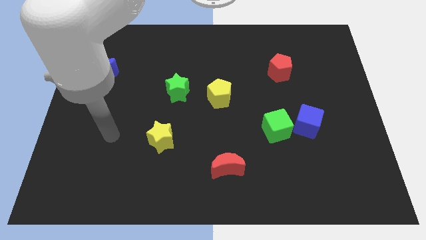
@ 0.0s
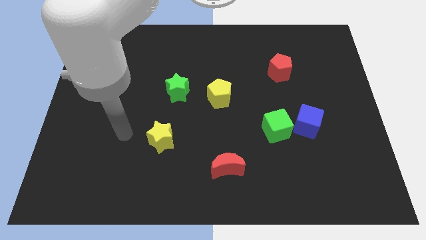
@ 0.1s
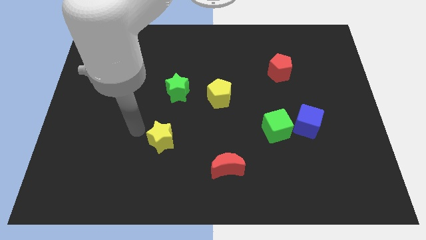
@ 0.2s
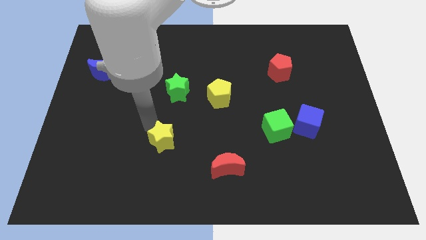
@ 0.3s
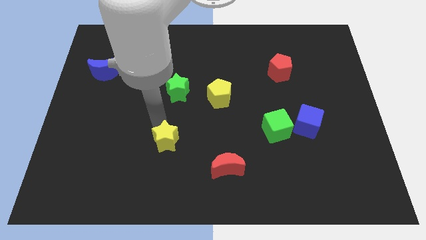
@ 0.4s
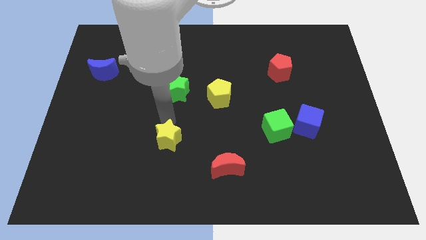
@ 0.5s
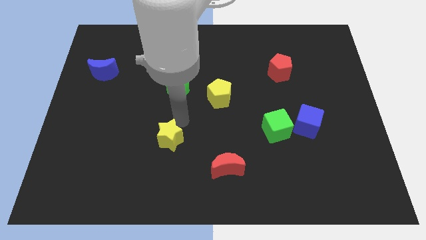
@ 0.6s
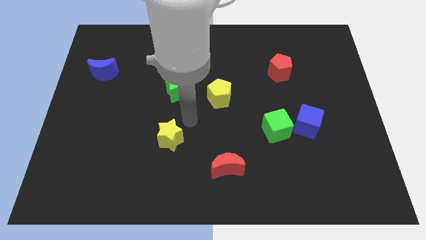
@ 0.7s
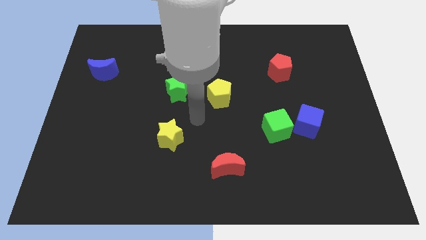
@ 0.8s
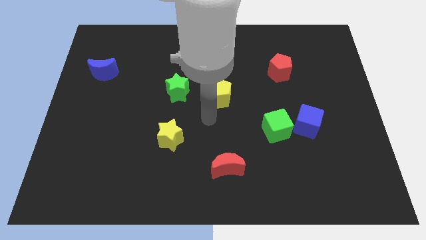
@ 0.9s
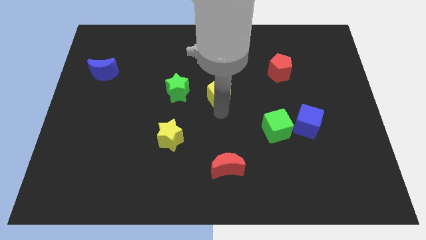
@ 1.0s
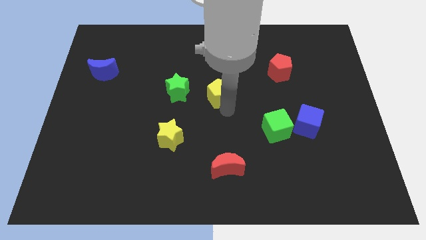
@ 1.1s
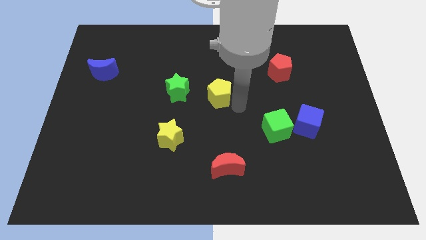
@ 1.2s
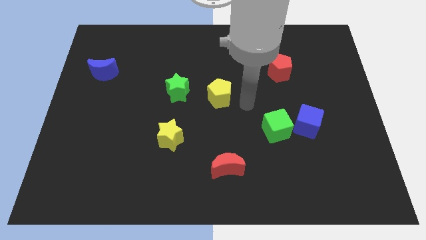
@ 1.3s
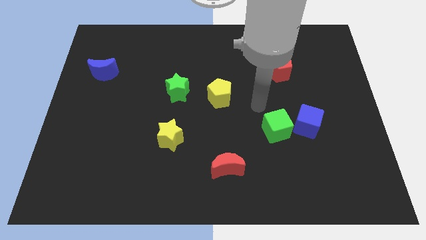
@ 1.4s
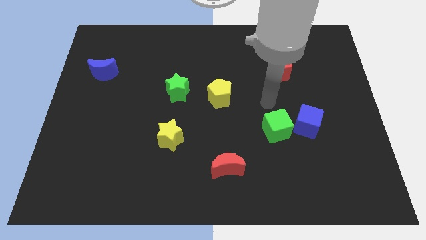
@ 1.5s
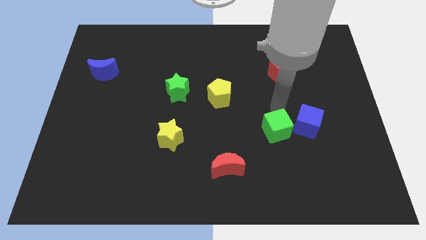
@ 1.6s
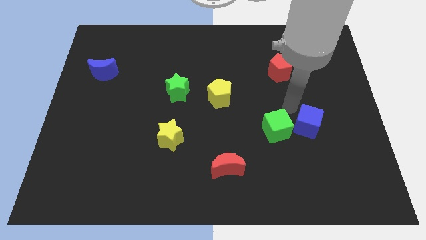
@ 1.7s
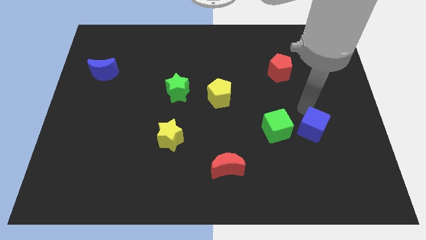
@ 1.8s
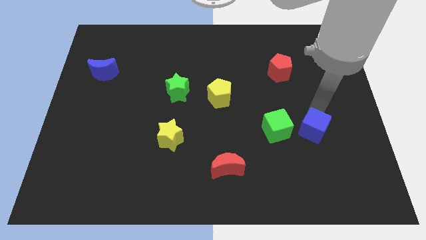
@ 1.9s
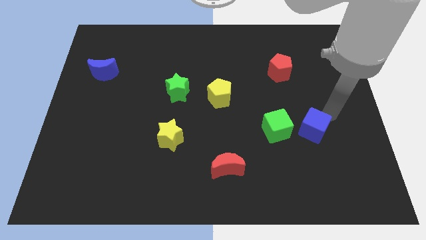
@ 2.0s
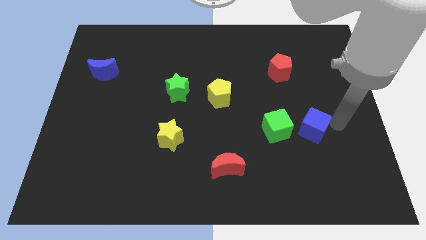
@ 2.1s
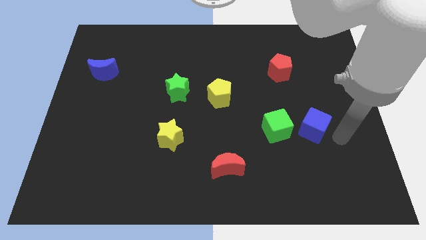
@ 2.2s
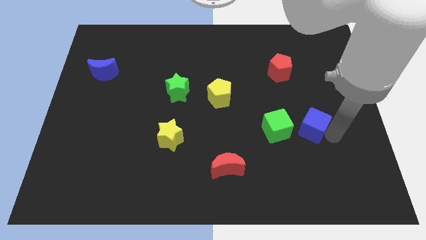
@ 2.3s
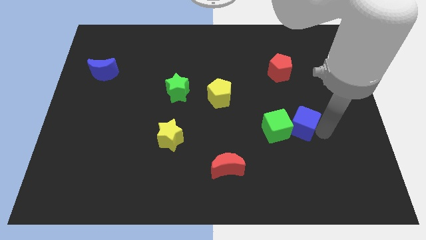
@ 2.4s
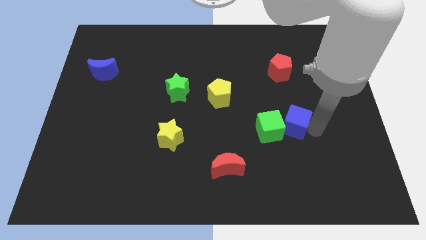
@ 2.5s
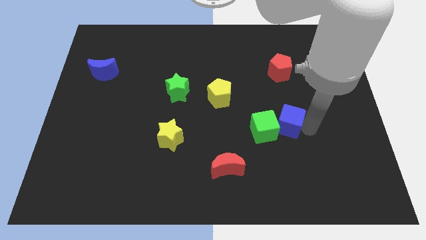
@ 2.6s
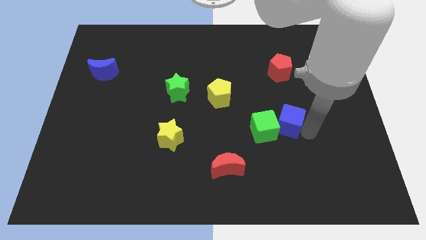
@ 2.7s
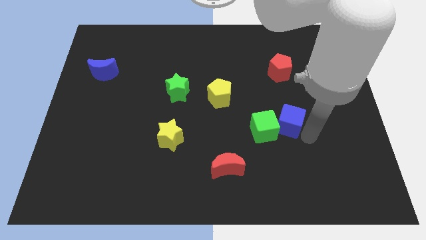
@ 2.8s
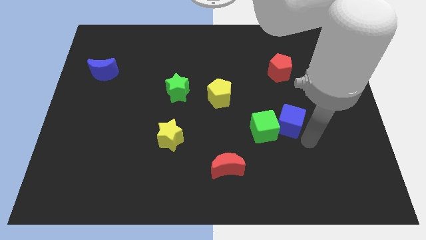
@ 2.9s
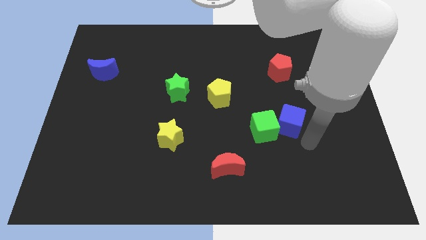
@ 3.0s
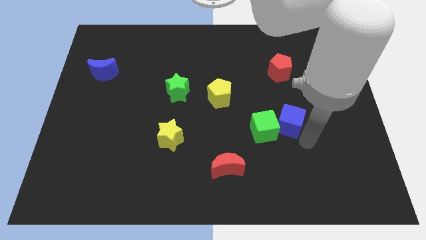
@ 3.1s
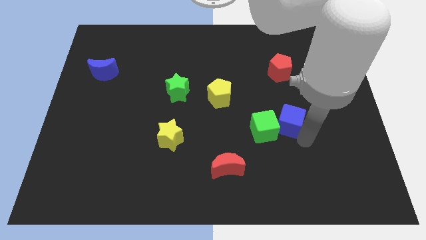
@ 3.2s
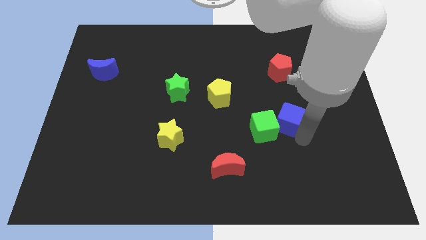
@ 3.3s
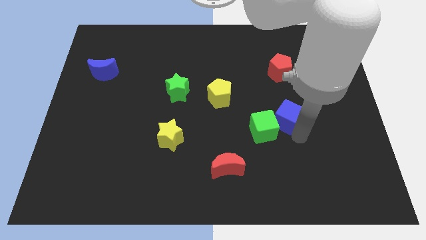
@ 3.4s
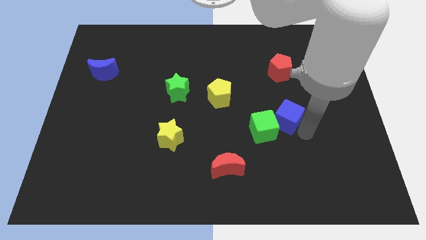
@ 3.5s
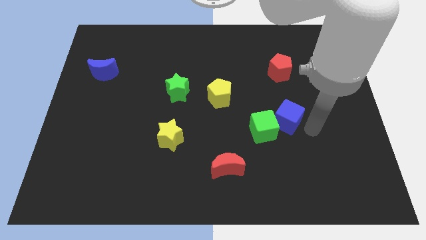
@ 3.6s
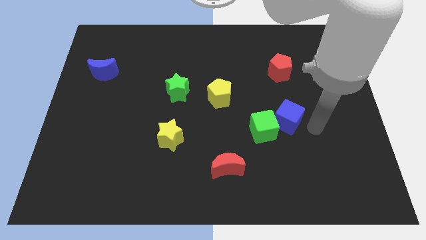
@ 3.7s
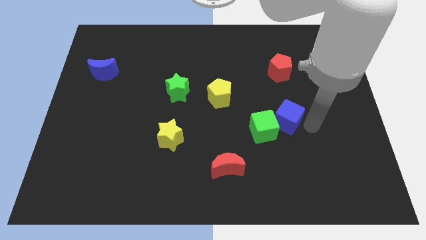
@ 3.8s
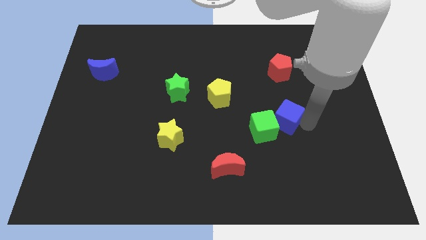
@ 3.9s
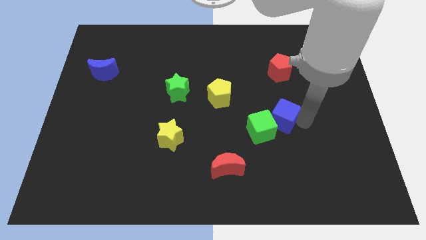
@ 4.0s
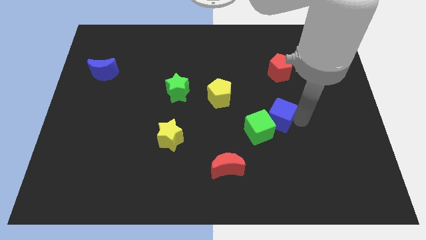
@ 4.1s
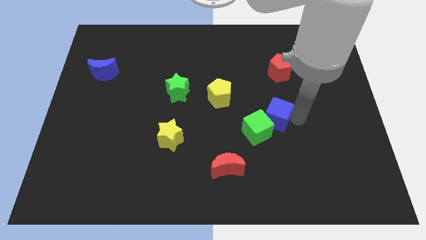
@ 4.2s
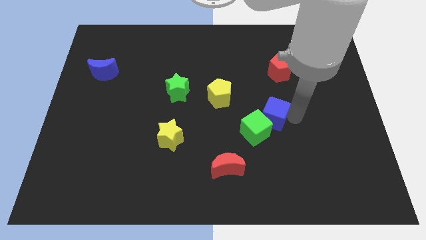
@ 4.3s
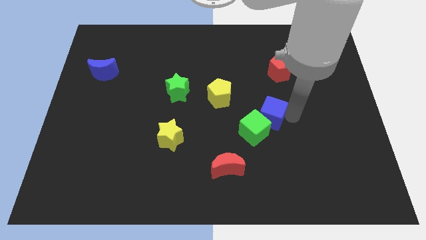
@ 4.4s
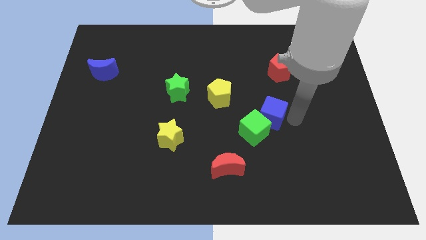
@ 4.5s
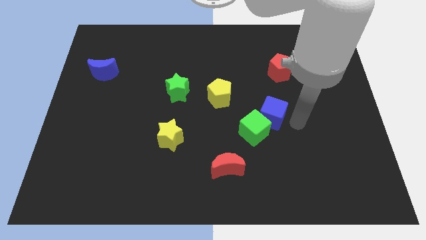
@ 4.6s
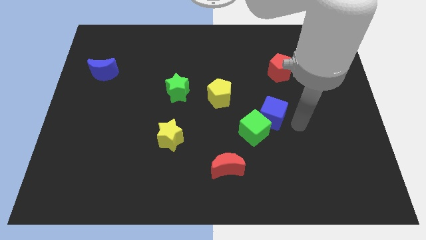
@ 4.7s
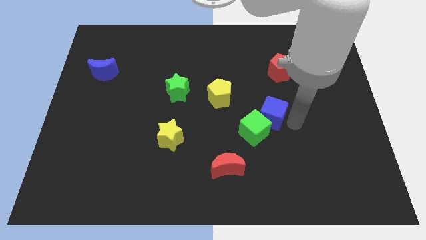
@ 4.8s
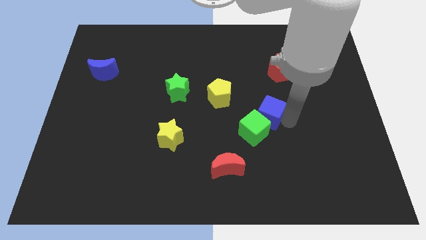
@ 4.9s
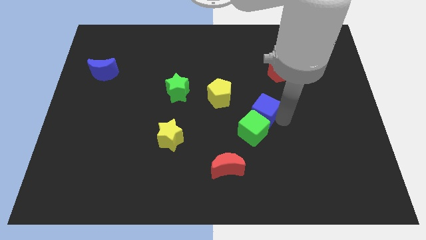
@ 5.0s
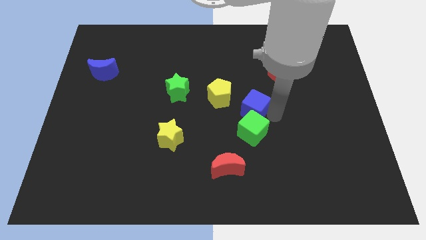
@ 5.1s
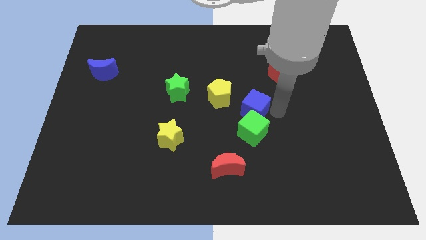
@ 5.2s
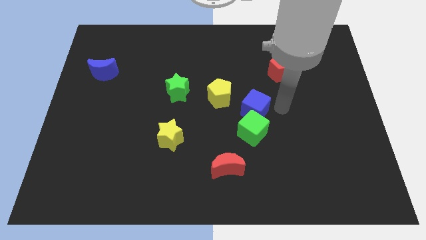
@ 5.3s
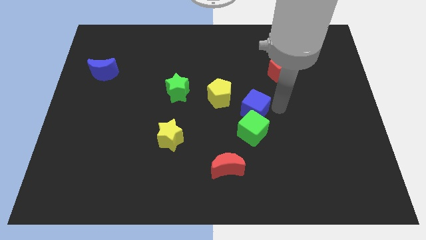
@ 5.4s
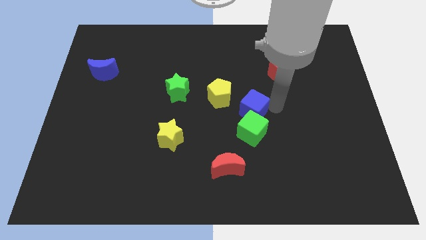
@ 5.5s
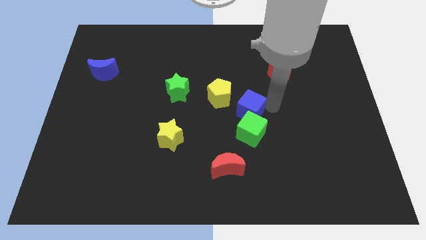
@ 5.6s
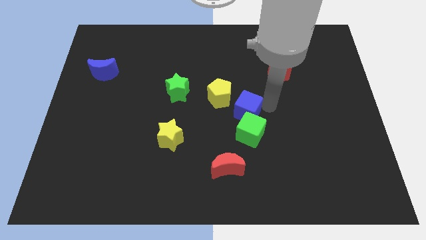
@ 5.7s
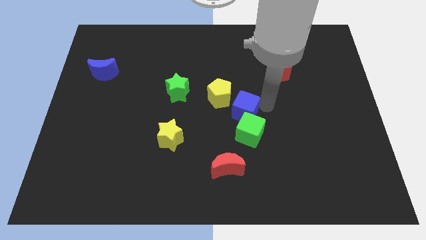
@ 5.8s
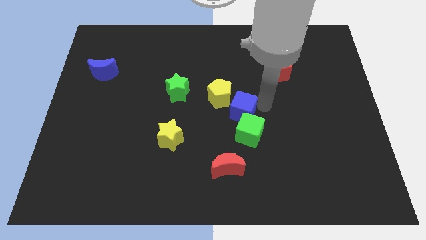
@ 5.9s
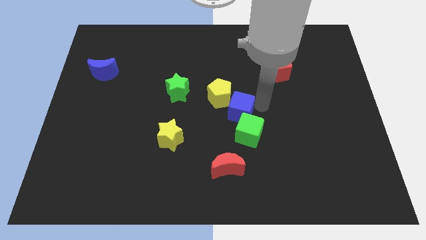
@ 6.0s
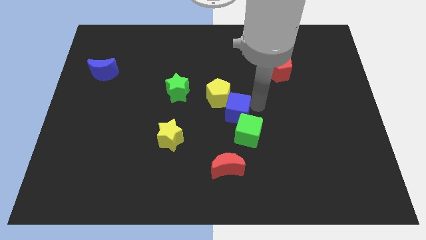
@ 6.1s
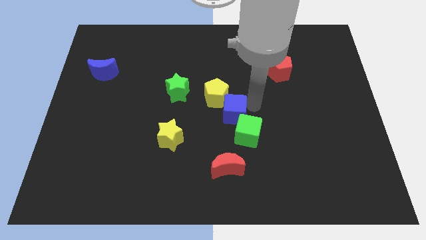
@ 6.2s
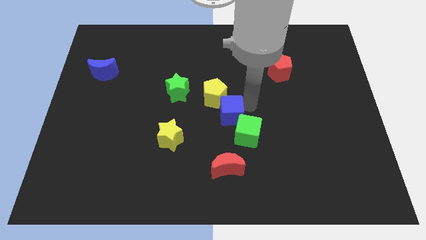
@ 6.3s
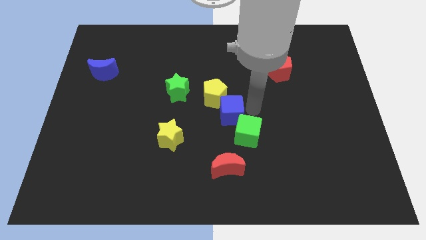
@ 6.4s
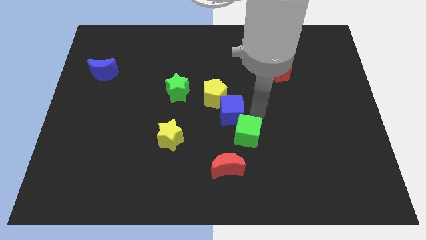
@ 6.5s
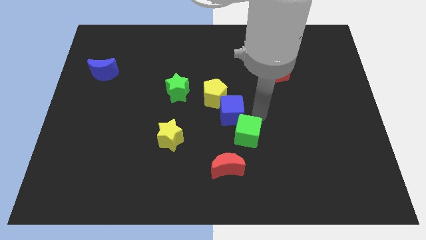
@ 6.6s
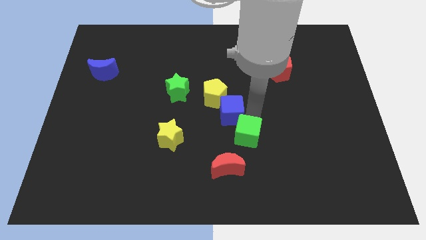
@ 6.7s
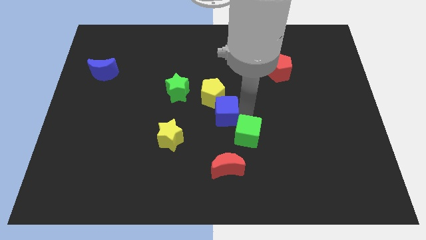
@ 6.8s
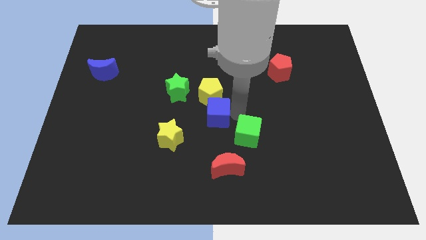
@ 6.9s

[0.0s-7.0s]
push the blue cube to the left

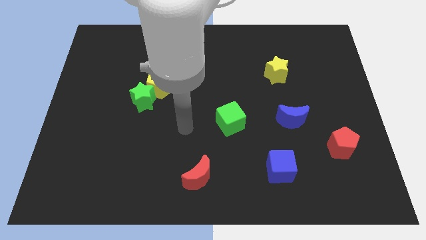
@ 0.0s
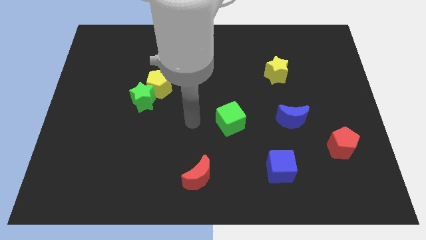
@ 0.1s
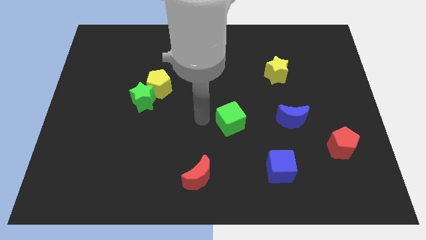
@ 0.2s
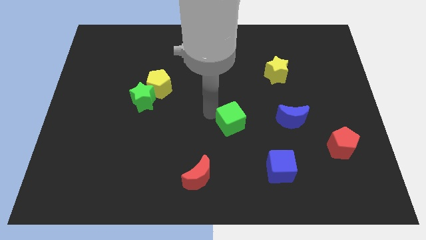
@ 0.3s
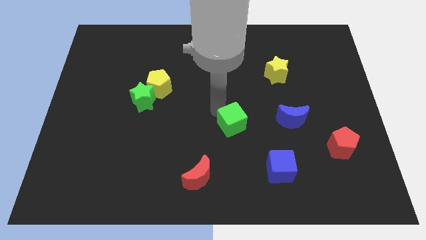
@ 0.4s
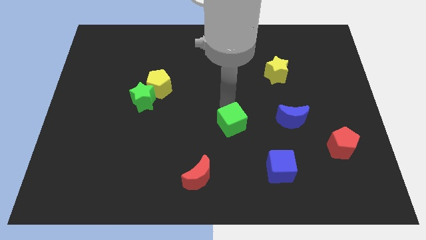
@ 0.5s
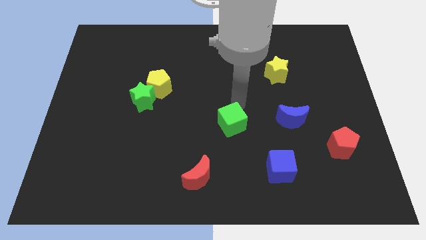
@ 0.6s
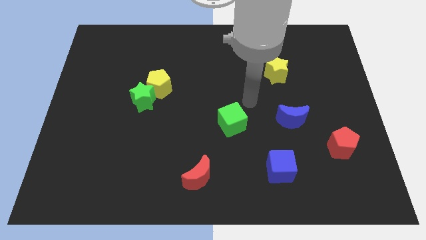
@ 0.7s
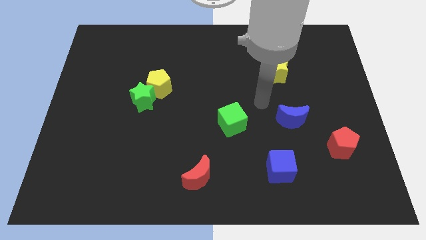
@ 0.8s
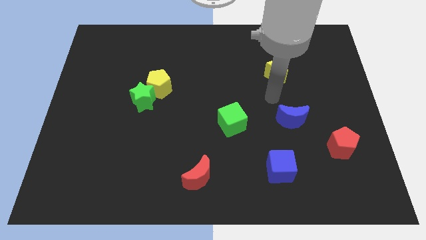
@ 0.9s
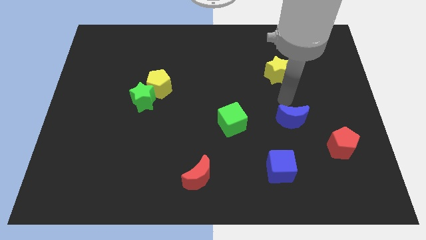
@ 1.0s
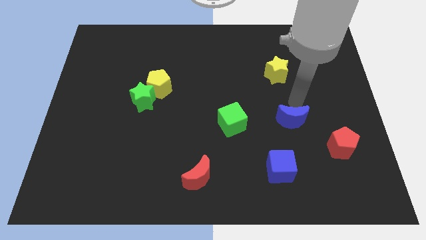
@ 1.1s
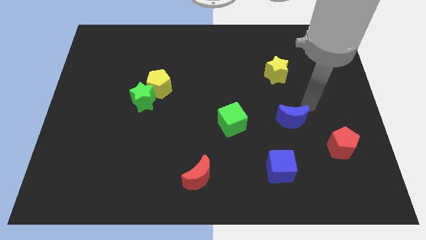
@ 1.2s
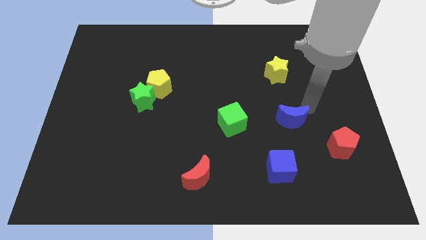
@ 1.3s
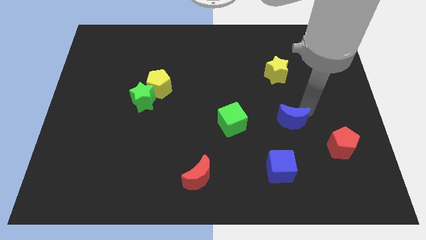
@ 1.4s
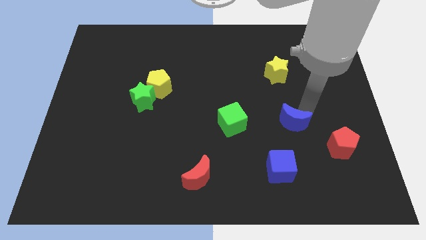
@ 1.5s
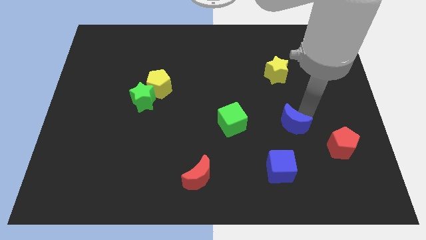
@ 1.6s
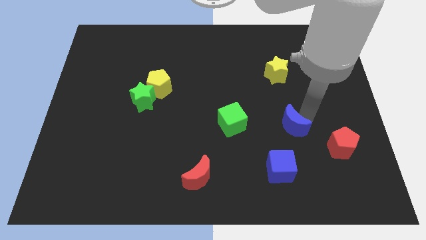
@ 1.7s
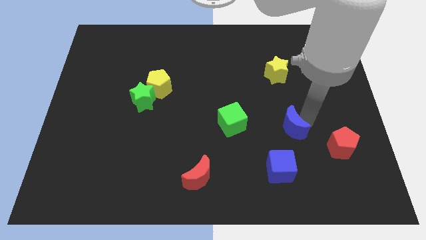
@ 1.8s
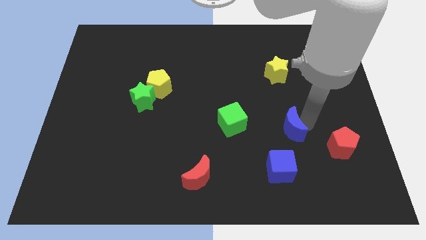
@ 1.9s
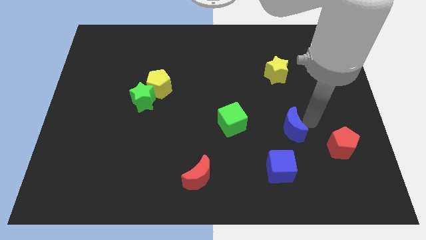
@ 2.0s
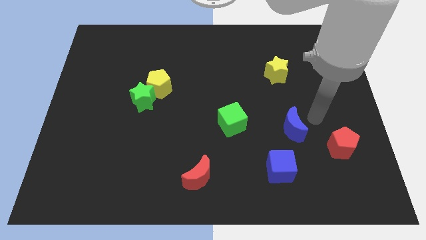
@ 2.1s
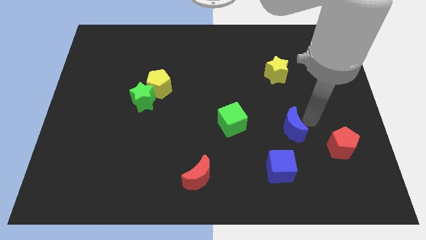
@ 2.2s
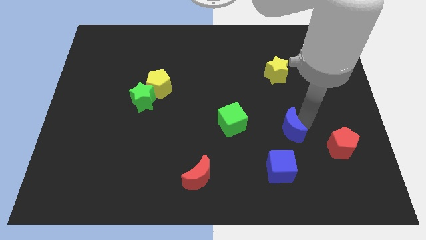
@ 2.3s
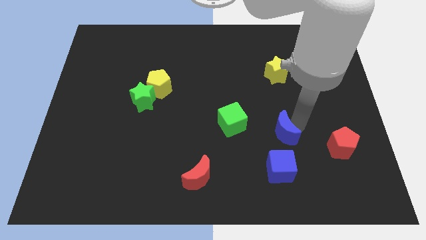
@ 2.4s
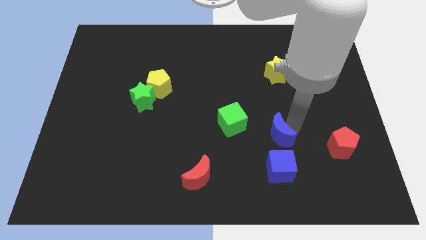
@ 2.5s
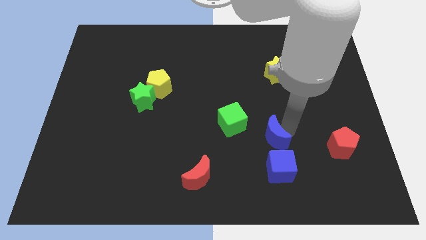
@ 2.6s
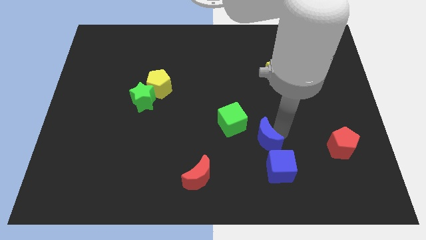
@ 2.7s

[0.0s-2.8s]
slide the blue moon diagonally down and left a bit
